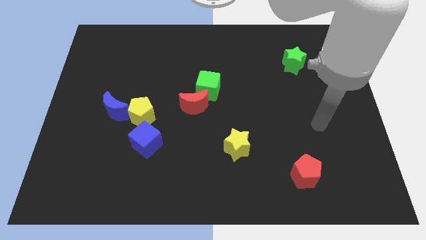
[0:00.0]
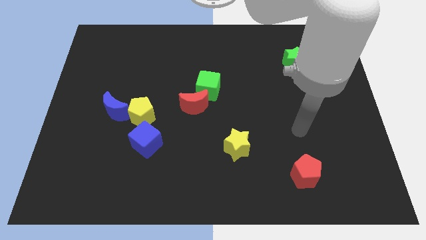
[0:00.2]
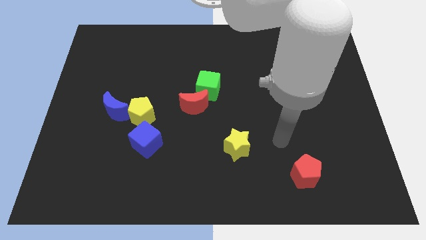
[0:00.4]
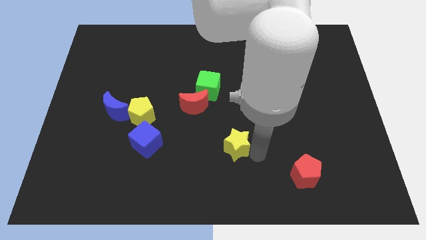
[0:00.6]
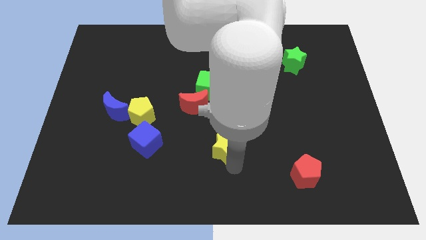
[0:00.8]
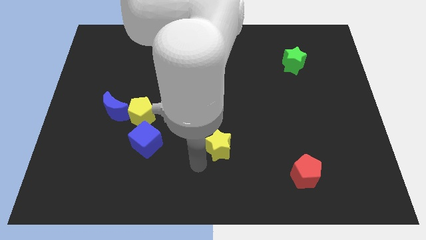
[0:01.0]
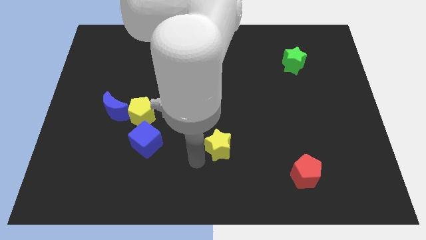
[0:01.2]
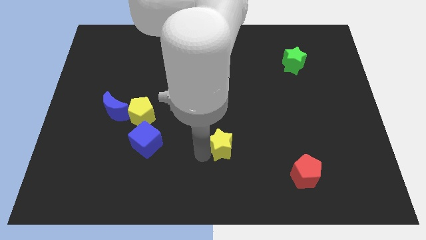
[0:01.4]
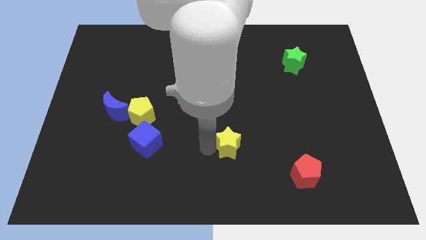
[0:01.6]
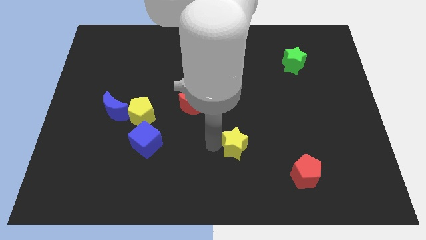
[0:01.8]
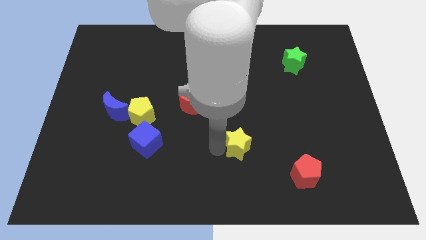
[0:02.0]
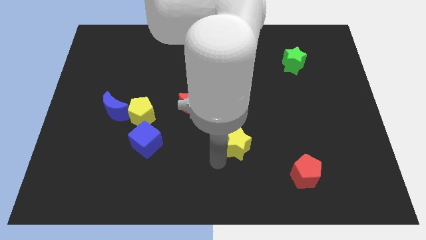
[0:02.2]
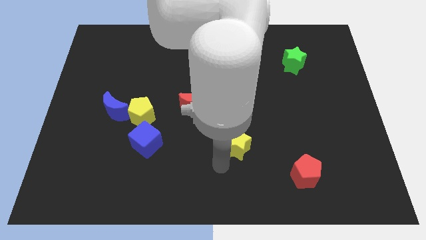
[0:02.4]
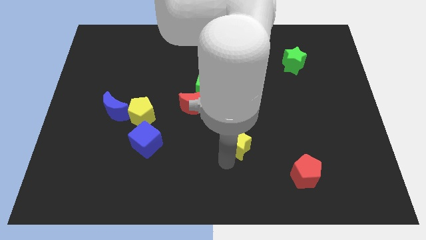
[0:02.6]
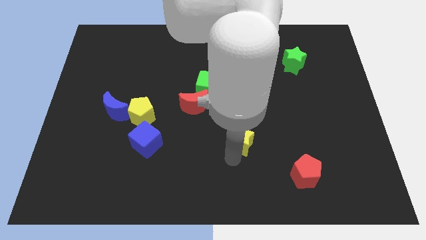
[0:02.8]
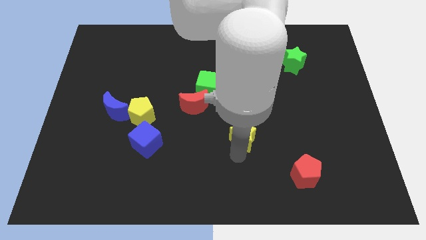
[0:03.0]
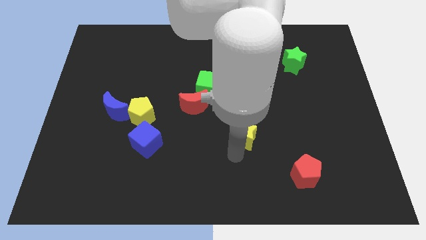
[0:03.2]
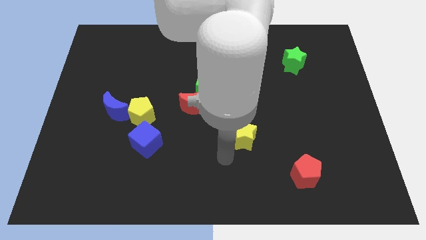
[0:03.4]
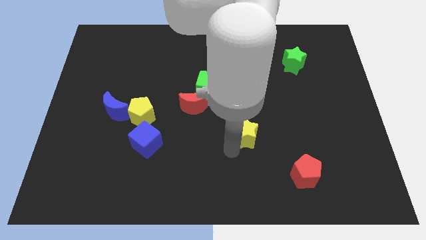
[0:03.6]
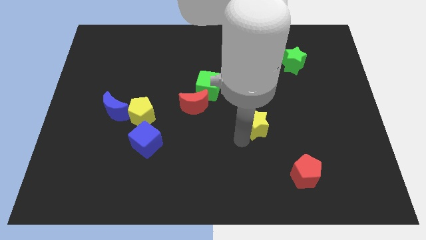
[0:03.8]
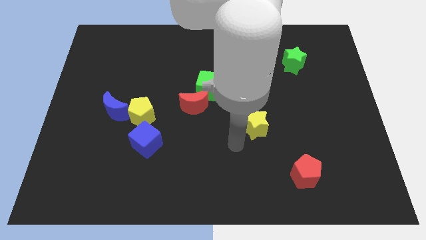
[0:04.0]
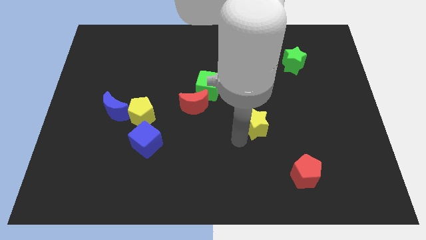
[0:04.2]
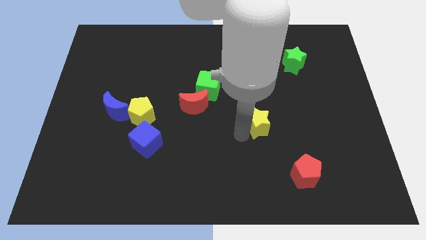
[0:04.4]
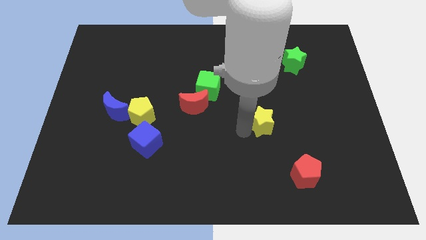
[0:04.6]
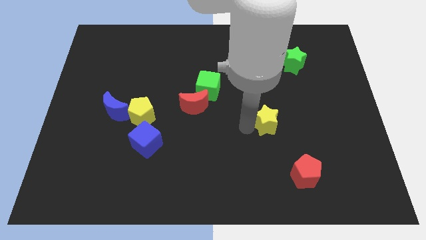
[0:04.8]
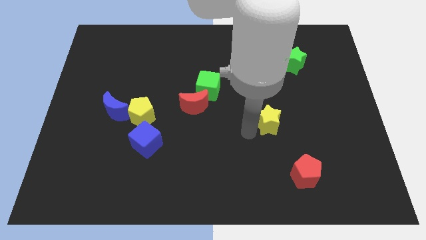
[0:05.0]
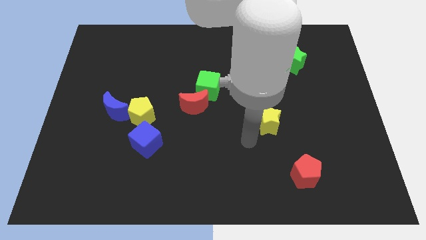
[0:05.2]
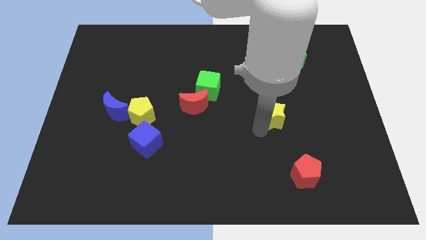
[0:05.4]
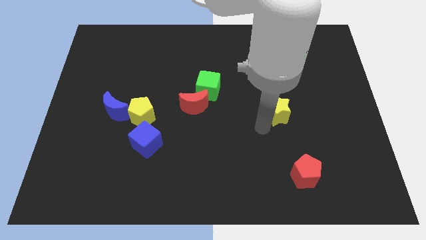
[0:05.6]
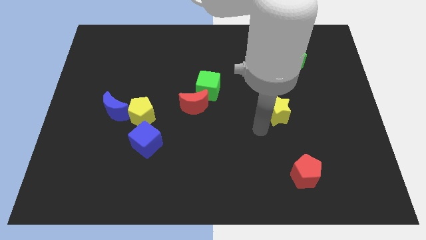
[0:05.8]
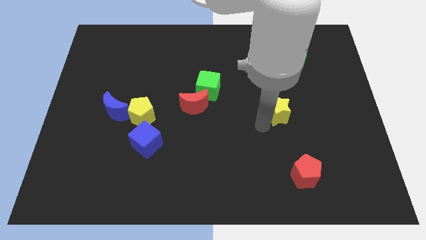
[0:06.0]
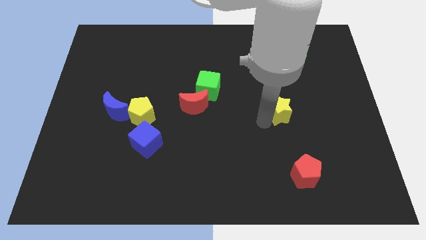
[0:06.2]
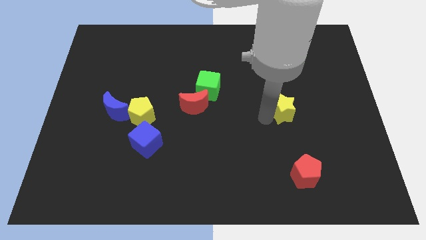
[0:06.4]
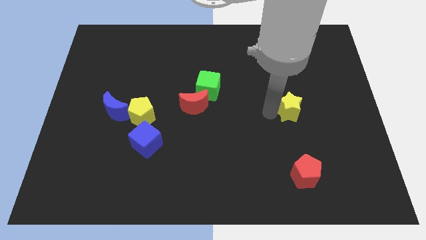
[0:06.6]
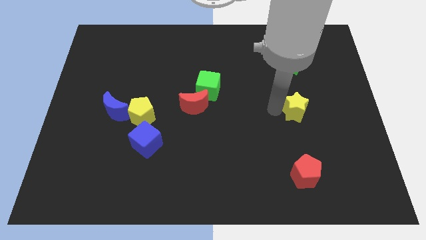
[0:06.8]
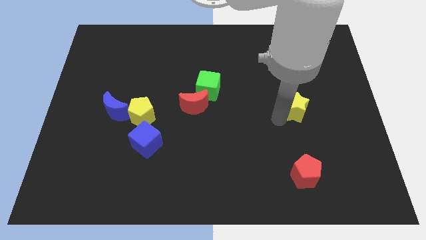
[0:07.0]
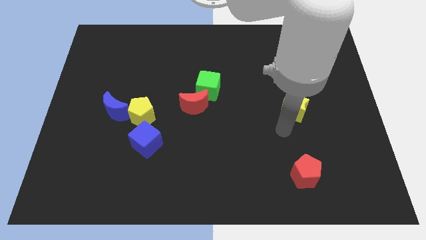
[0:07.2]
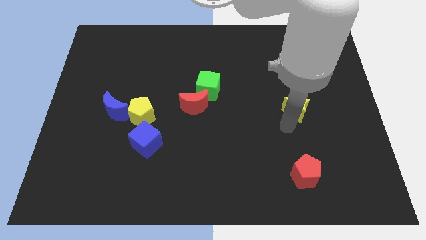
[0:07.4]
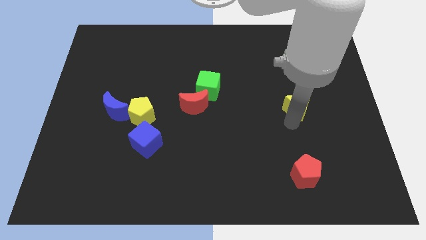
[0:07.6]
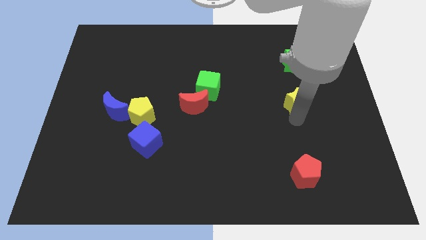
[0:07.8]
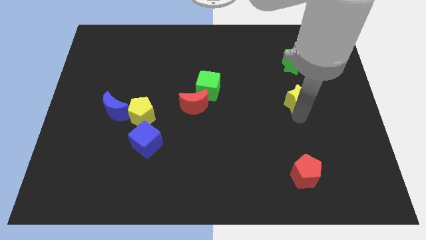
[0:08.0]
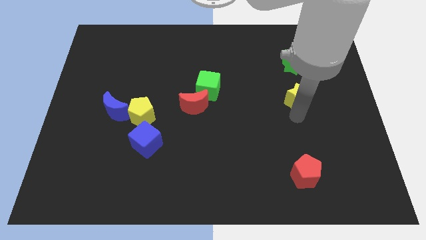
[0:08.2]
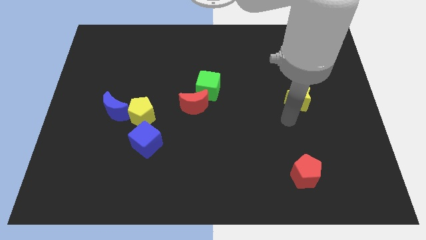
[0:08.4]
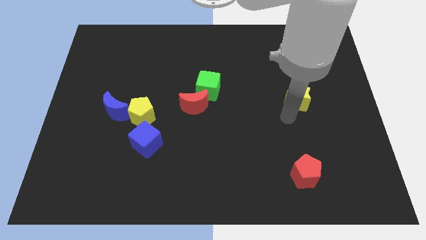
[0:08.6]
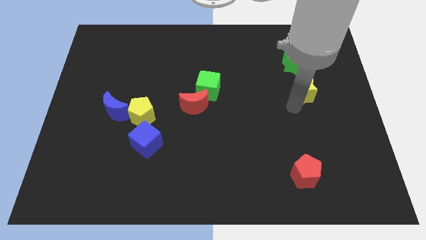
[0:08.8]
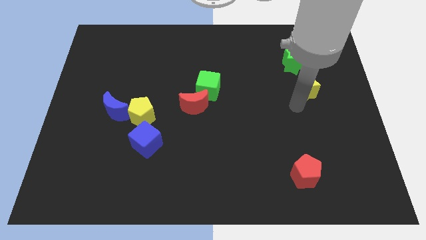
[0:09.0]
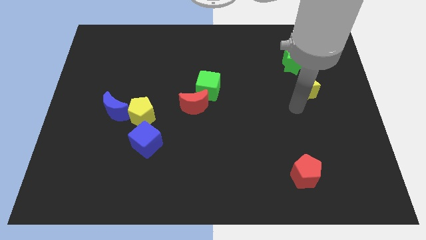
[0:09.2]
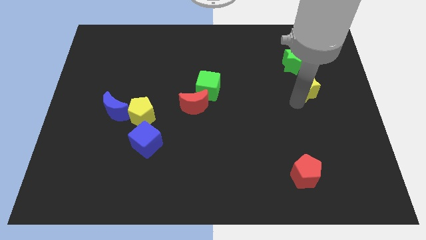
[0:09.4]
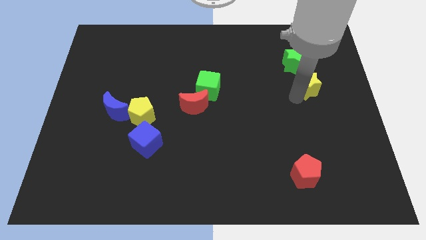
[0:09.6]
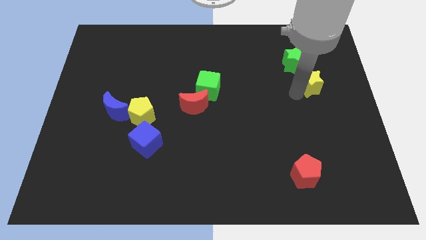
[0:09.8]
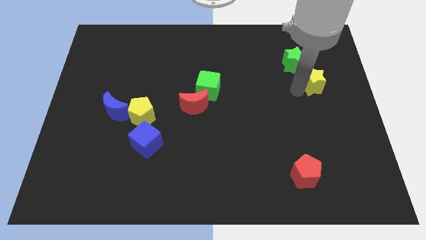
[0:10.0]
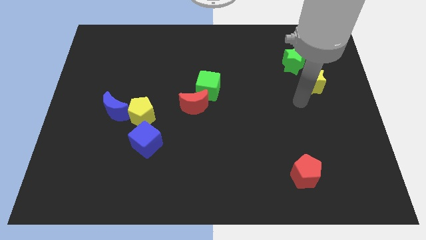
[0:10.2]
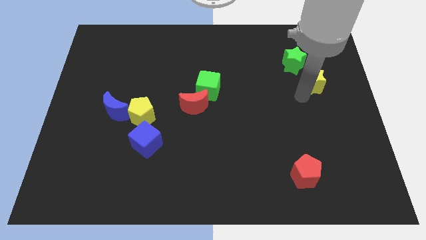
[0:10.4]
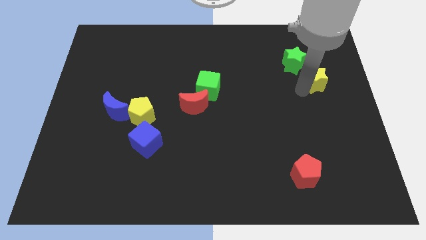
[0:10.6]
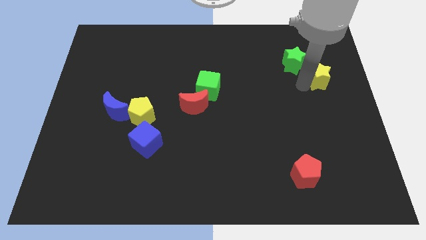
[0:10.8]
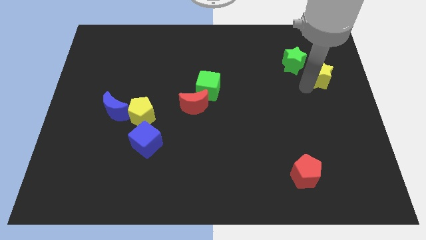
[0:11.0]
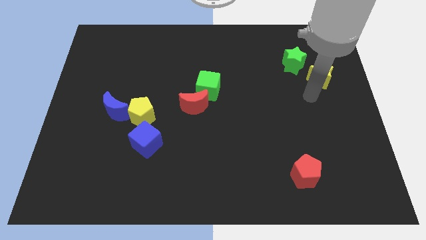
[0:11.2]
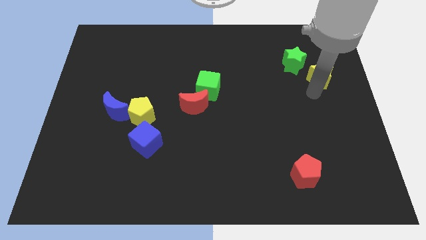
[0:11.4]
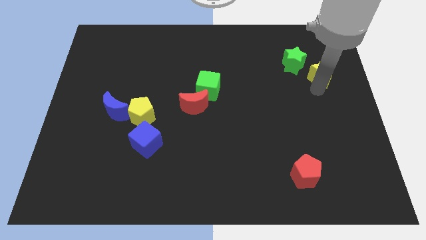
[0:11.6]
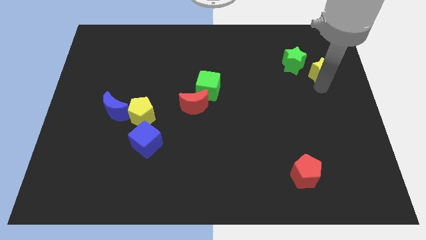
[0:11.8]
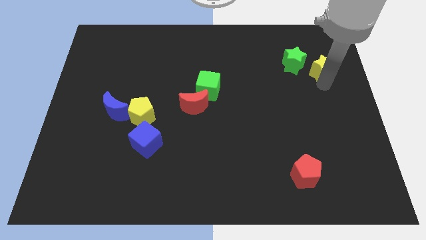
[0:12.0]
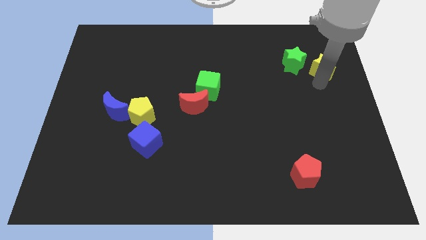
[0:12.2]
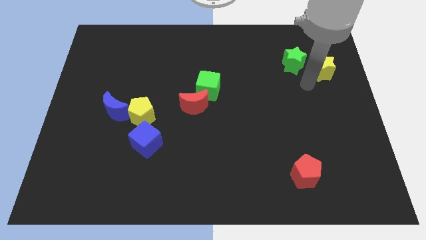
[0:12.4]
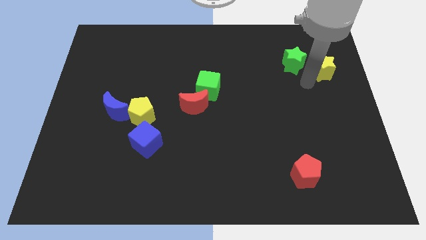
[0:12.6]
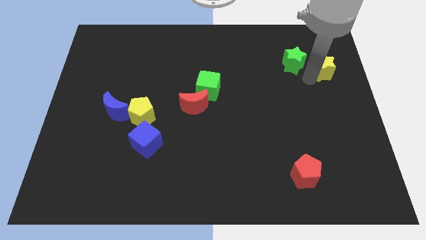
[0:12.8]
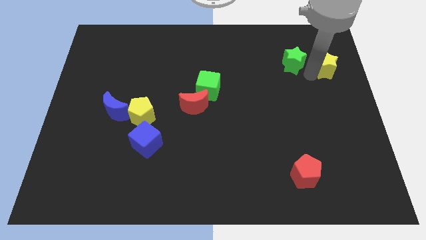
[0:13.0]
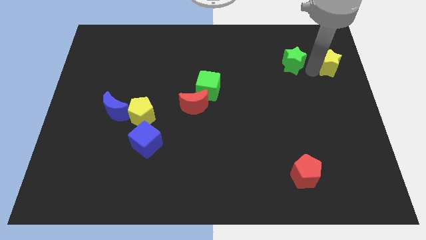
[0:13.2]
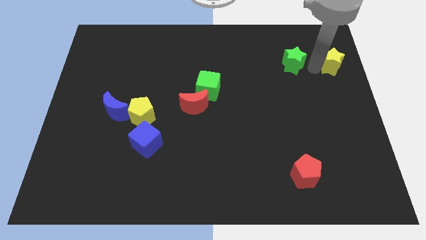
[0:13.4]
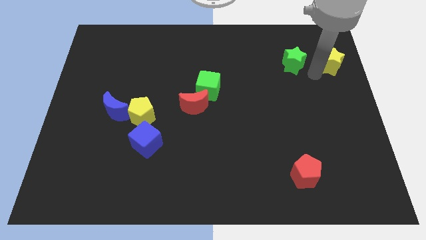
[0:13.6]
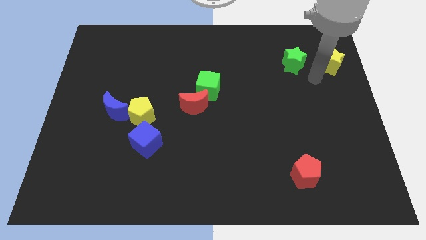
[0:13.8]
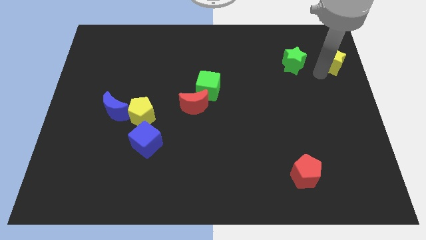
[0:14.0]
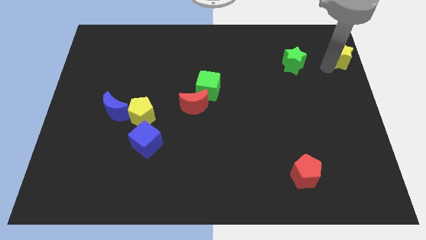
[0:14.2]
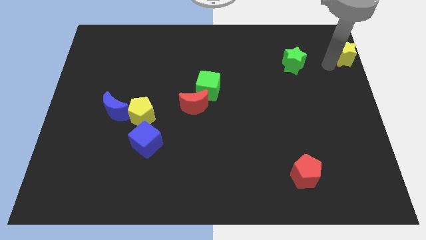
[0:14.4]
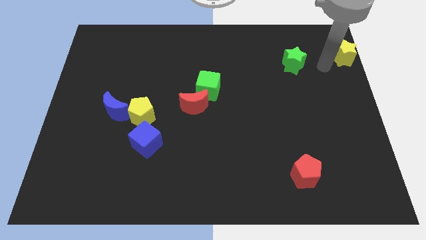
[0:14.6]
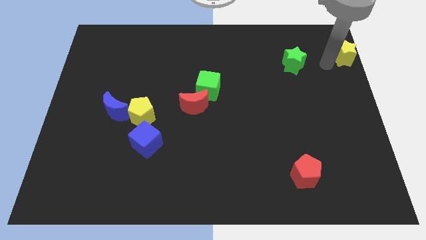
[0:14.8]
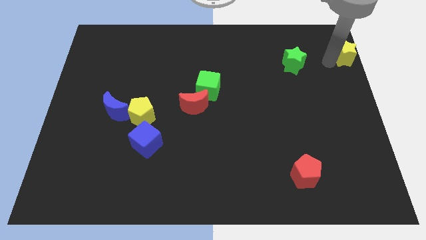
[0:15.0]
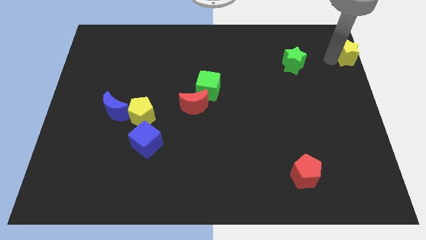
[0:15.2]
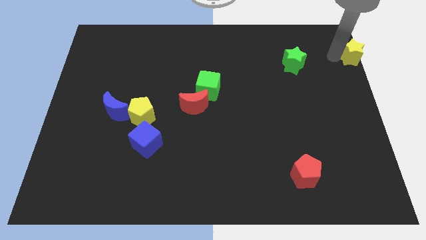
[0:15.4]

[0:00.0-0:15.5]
move the yellow star to the top right of the board
